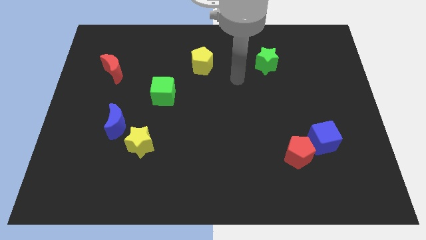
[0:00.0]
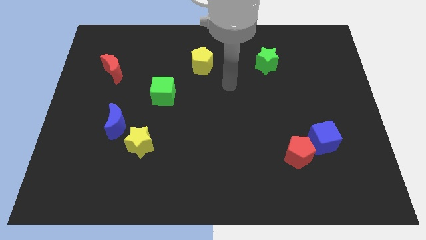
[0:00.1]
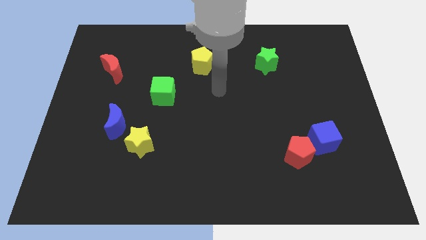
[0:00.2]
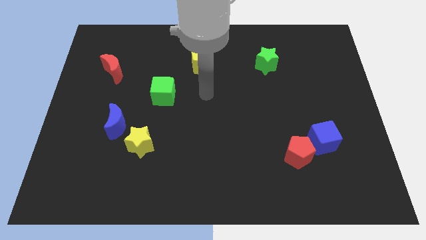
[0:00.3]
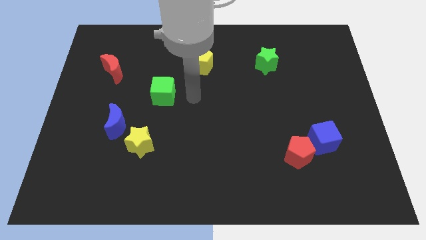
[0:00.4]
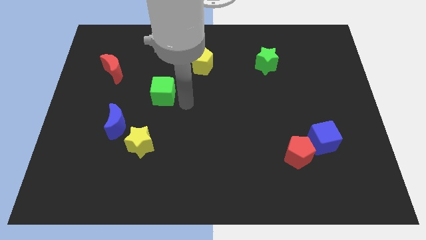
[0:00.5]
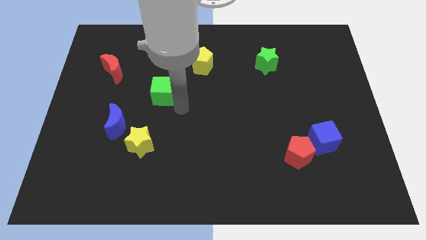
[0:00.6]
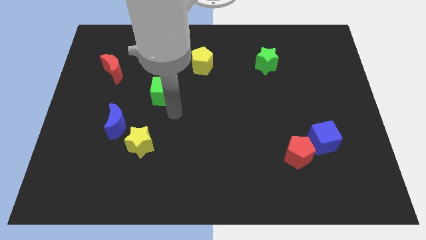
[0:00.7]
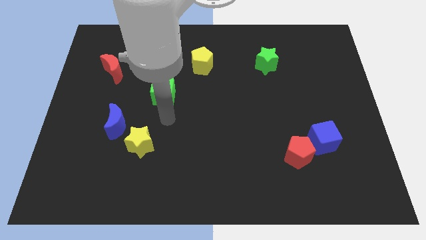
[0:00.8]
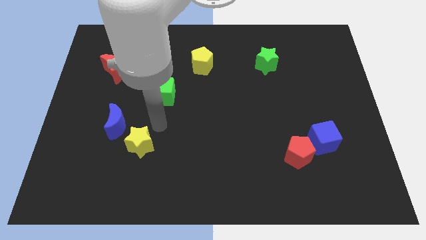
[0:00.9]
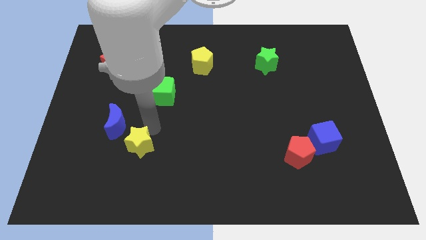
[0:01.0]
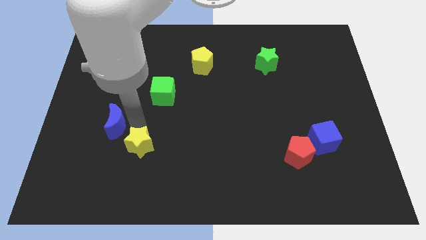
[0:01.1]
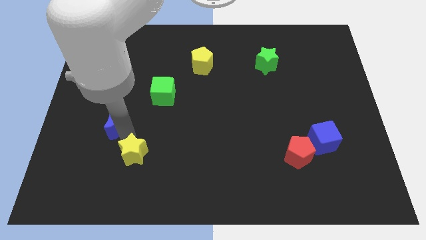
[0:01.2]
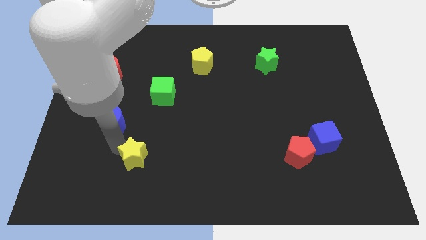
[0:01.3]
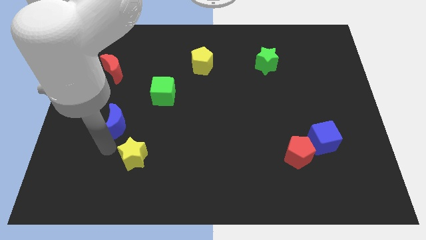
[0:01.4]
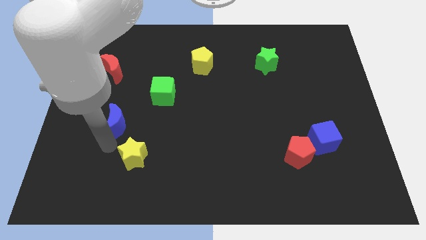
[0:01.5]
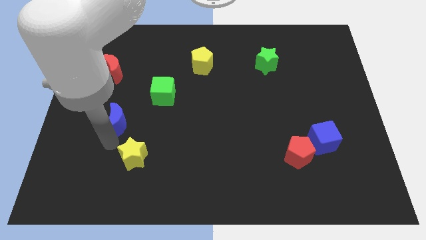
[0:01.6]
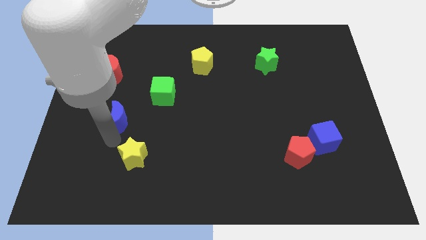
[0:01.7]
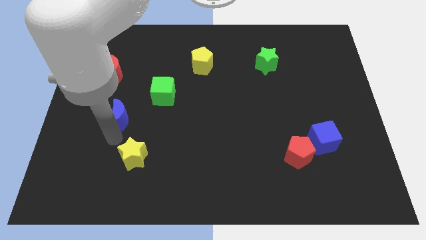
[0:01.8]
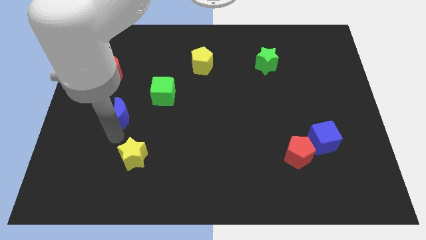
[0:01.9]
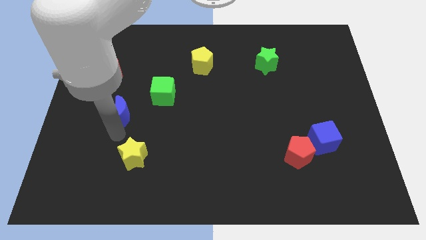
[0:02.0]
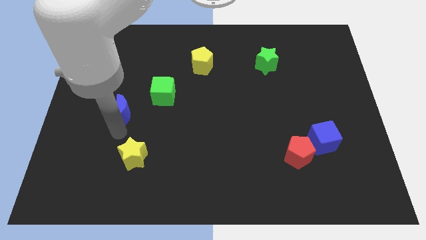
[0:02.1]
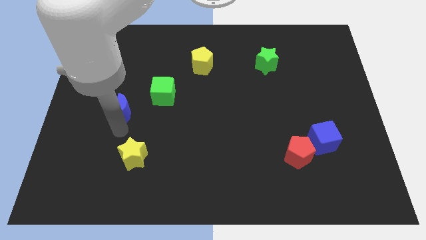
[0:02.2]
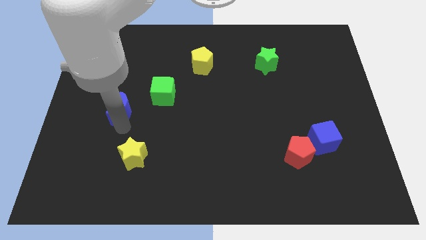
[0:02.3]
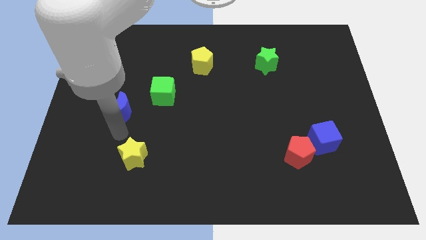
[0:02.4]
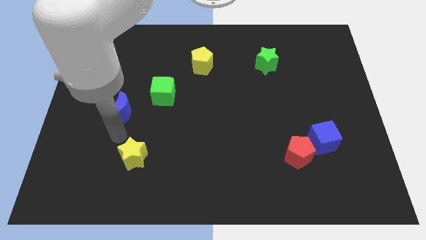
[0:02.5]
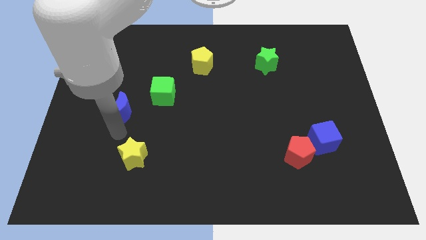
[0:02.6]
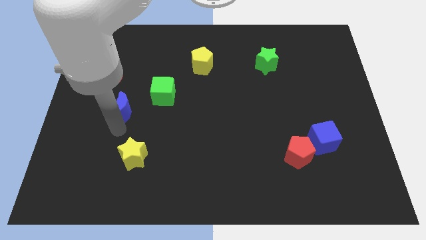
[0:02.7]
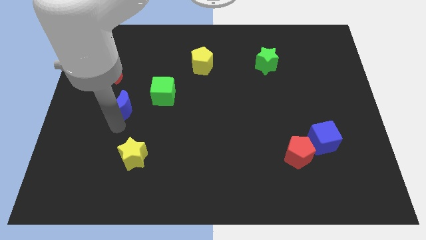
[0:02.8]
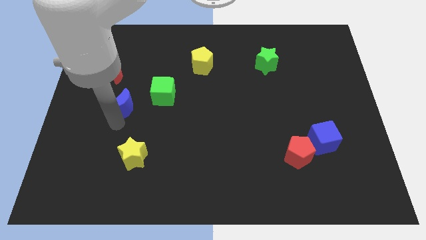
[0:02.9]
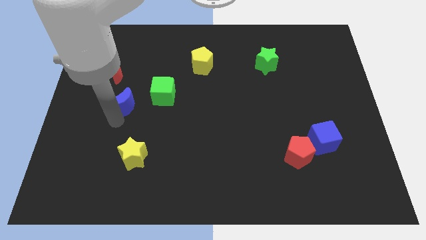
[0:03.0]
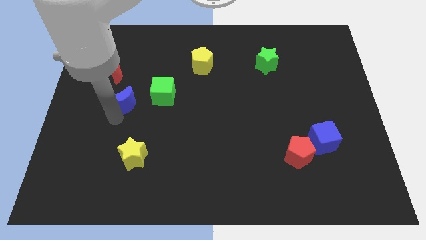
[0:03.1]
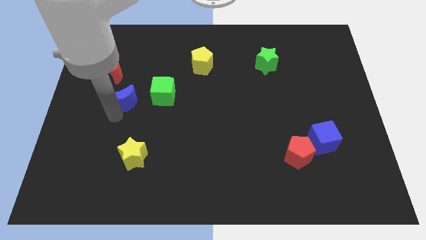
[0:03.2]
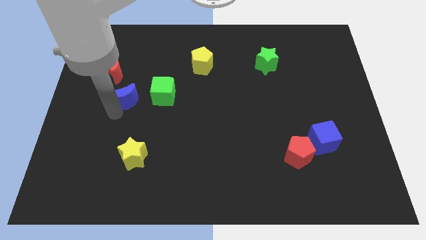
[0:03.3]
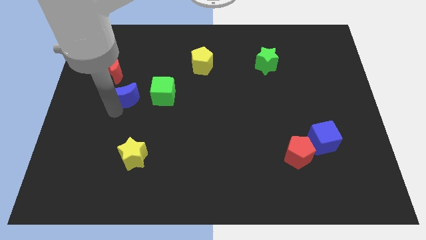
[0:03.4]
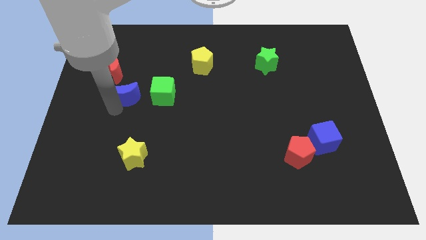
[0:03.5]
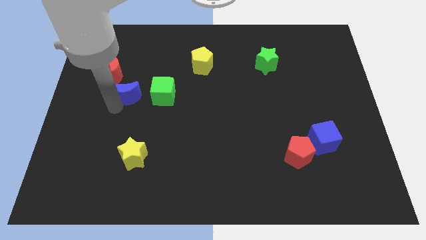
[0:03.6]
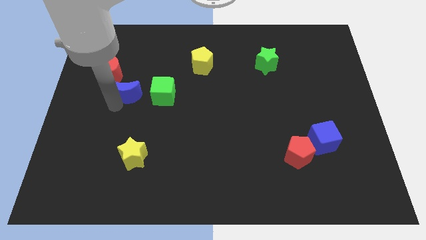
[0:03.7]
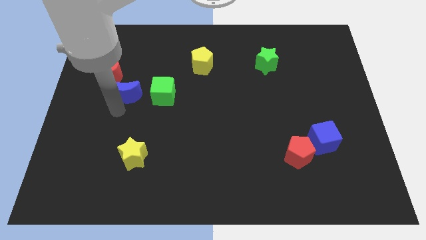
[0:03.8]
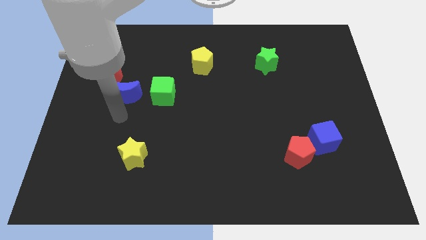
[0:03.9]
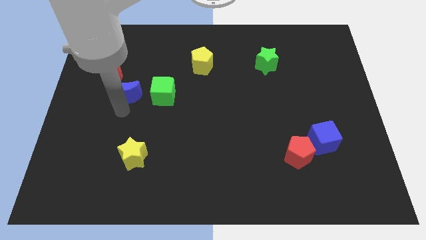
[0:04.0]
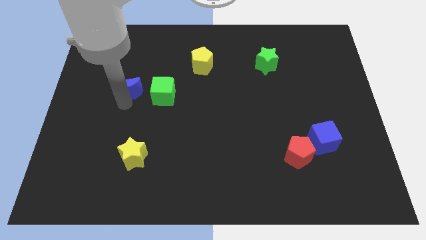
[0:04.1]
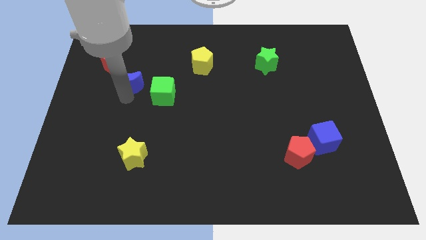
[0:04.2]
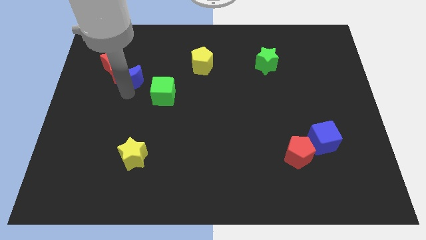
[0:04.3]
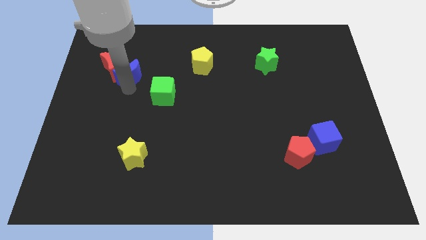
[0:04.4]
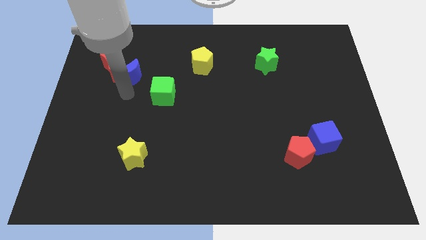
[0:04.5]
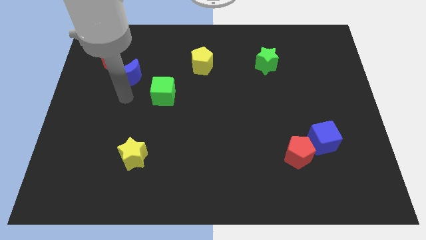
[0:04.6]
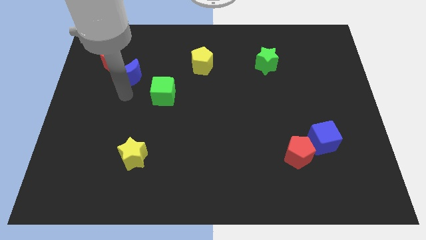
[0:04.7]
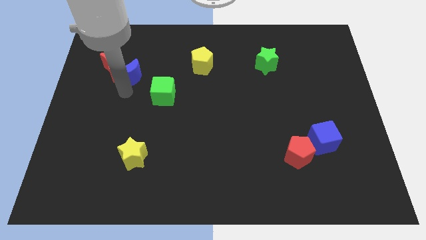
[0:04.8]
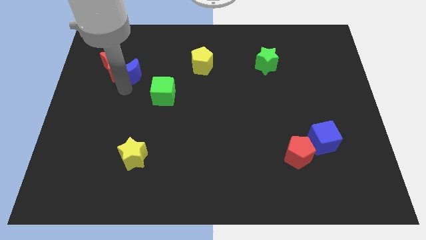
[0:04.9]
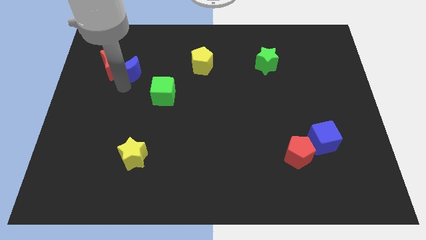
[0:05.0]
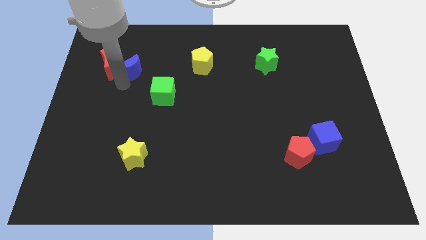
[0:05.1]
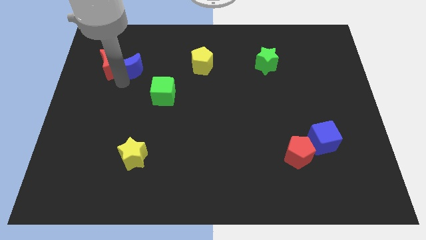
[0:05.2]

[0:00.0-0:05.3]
move the blue moon to the top right side of the red moon

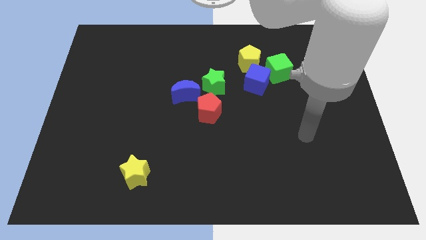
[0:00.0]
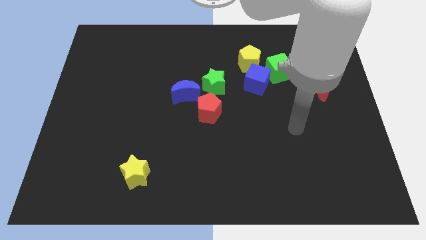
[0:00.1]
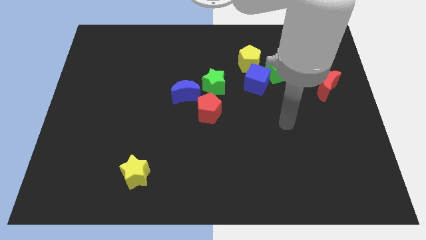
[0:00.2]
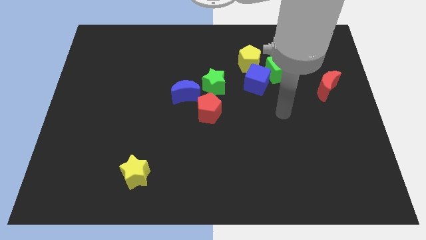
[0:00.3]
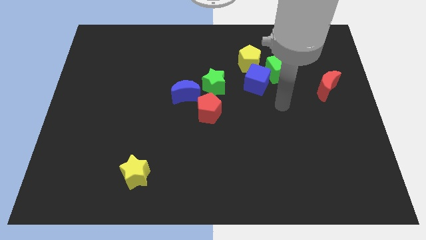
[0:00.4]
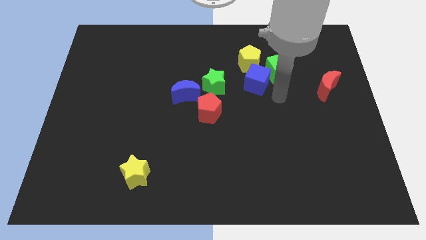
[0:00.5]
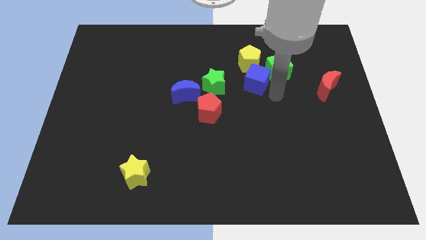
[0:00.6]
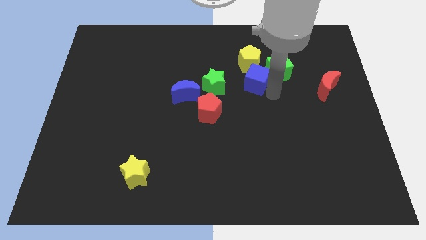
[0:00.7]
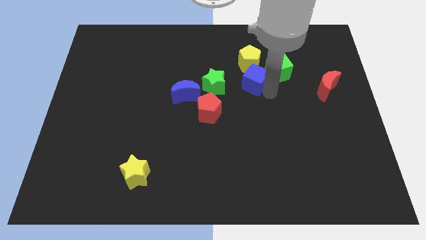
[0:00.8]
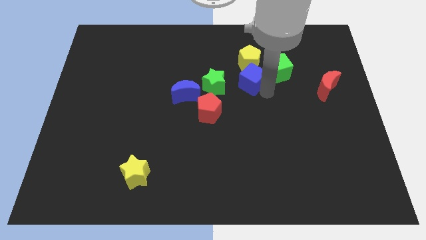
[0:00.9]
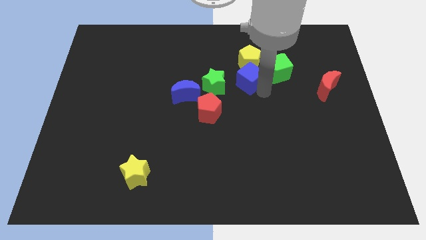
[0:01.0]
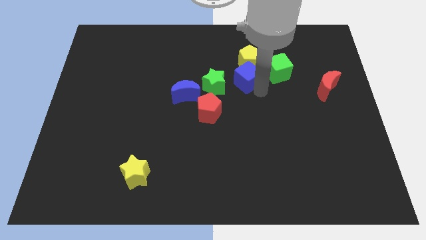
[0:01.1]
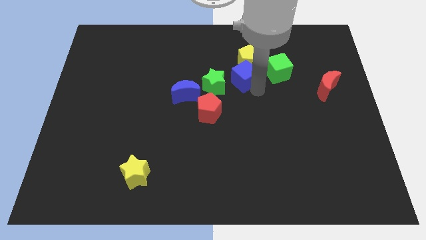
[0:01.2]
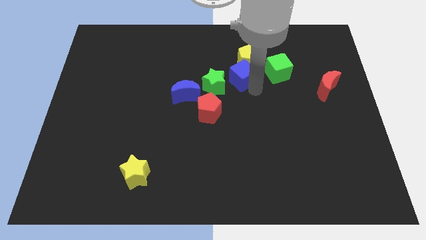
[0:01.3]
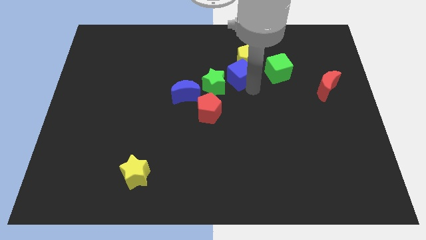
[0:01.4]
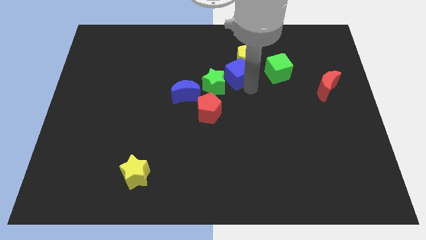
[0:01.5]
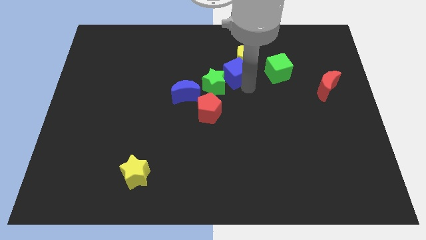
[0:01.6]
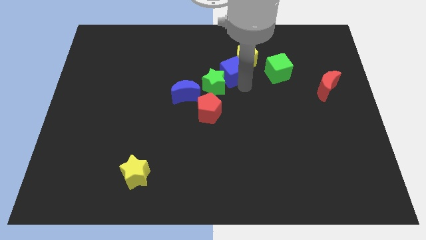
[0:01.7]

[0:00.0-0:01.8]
slide the blue cube above the green star
